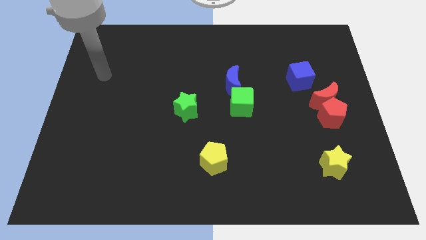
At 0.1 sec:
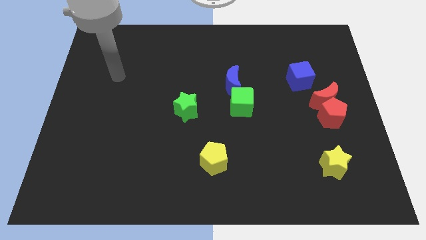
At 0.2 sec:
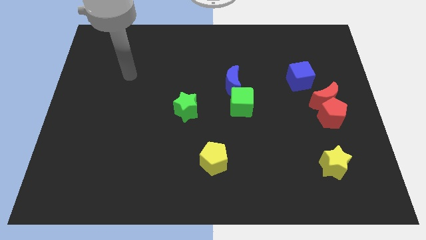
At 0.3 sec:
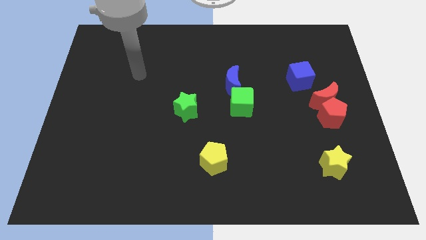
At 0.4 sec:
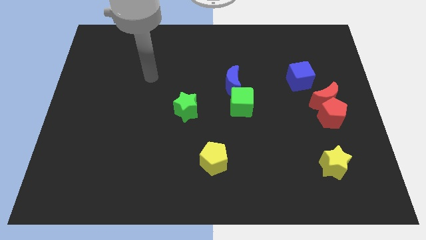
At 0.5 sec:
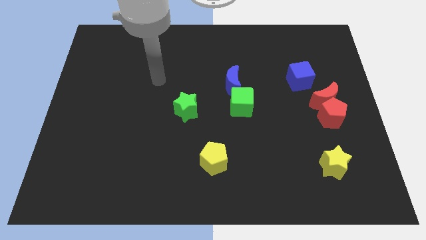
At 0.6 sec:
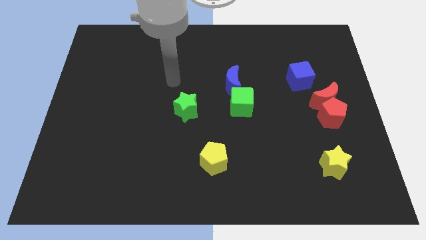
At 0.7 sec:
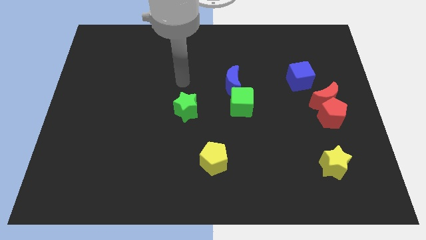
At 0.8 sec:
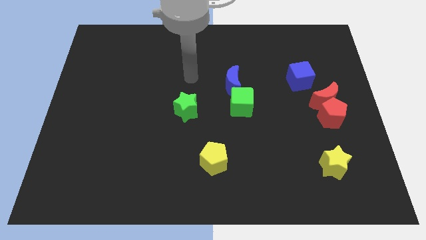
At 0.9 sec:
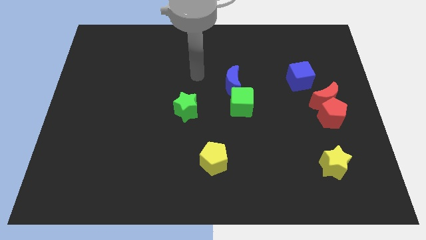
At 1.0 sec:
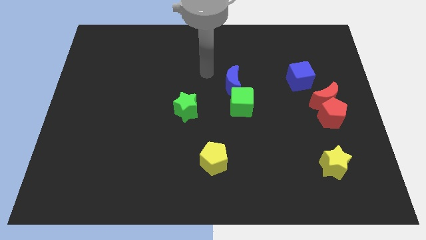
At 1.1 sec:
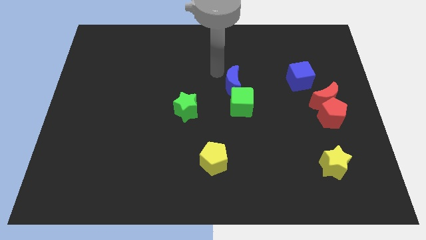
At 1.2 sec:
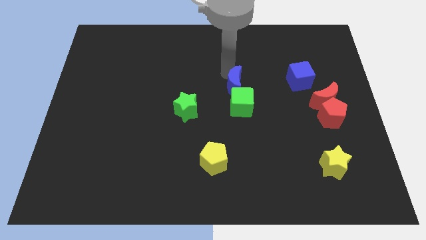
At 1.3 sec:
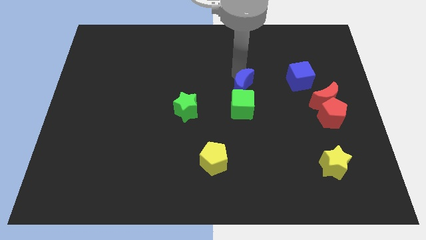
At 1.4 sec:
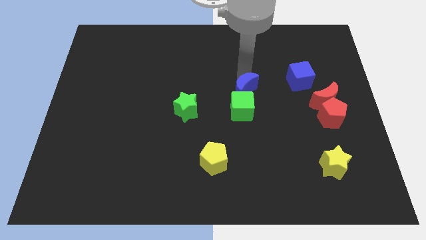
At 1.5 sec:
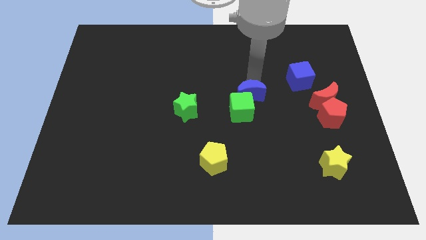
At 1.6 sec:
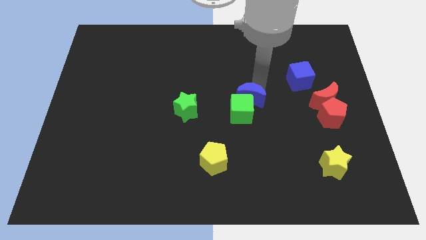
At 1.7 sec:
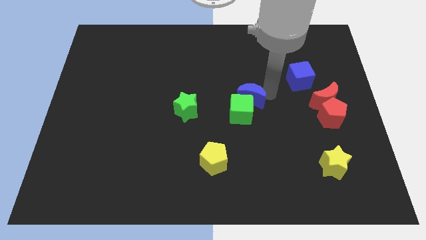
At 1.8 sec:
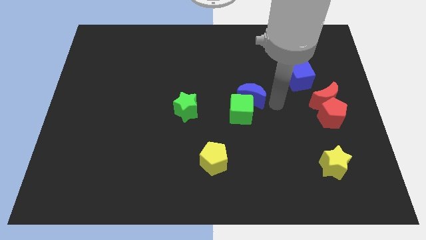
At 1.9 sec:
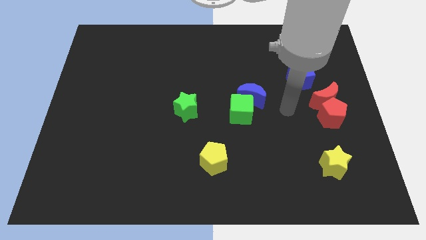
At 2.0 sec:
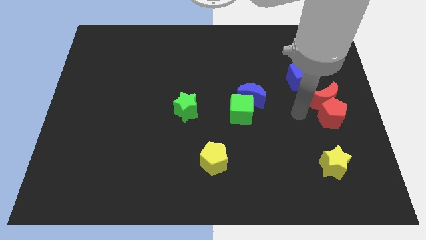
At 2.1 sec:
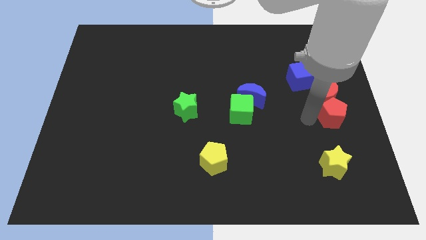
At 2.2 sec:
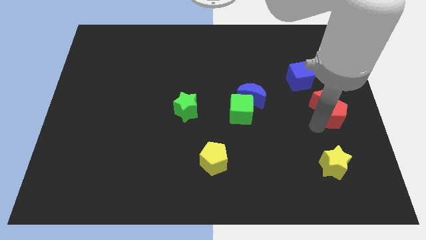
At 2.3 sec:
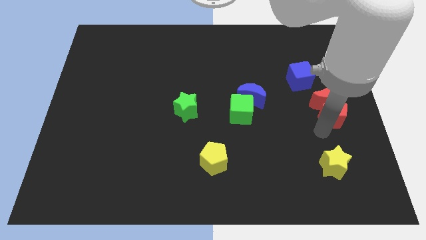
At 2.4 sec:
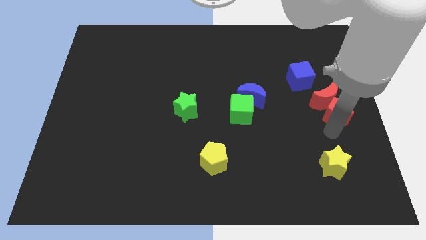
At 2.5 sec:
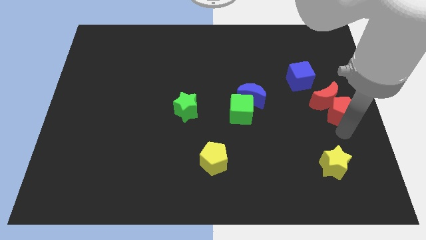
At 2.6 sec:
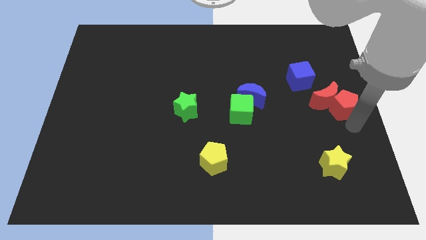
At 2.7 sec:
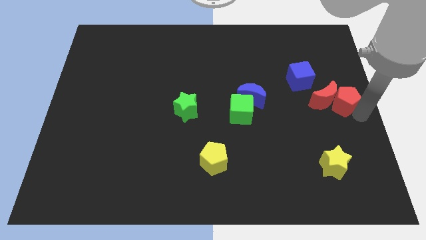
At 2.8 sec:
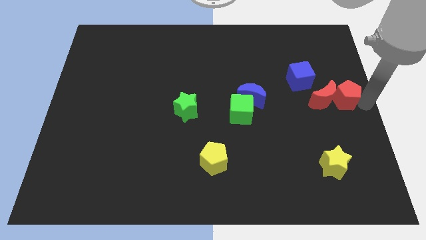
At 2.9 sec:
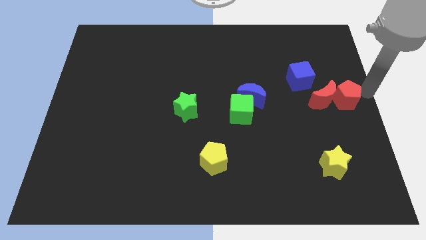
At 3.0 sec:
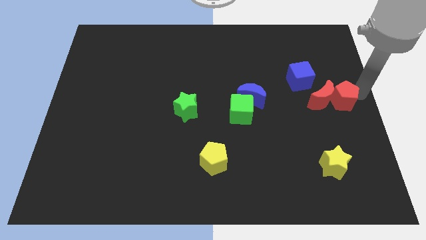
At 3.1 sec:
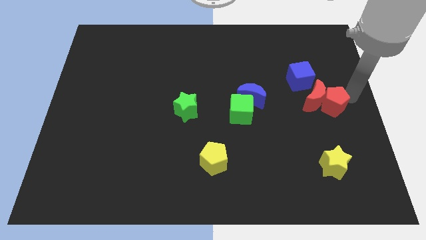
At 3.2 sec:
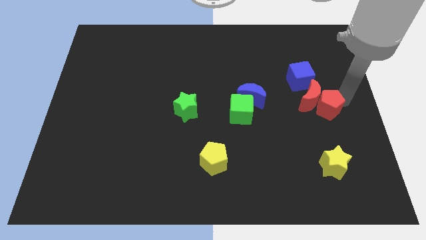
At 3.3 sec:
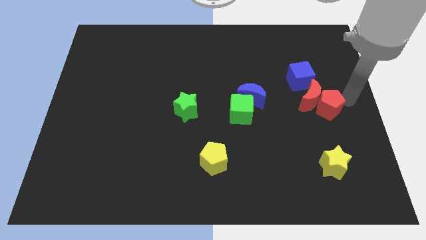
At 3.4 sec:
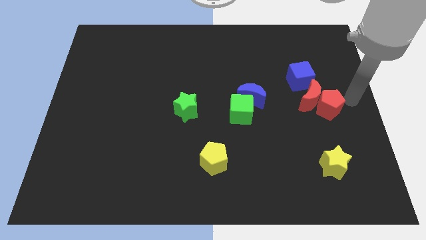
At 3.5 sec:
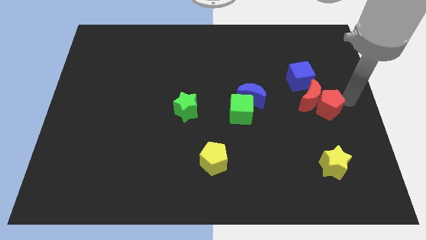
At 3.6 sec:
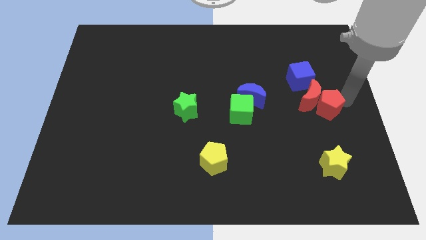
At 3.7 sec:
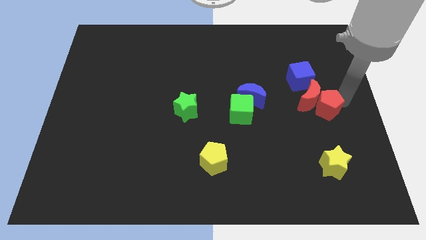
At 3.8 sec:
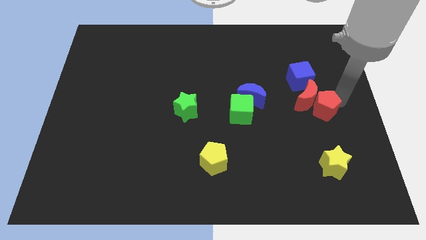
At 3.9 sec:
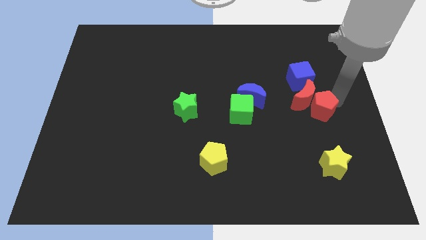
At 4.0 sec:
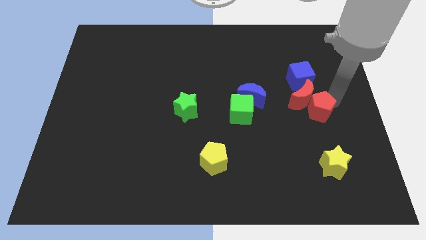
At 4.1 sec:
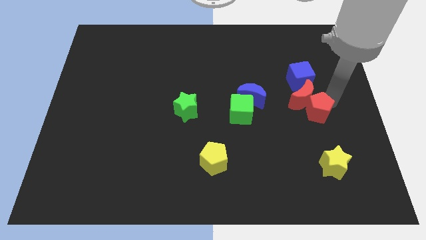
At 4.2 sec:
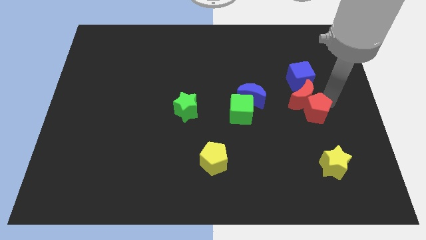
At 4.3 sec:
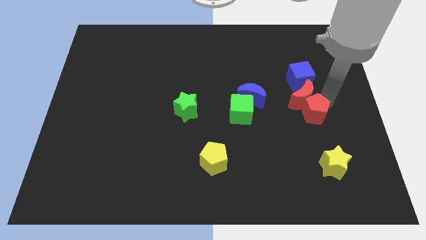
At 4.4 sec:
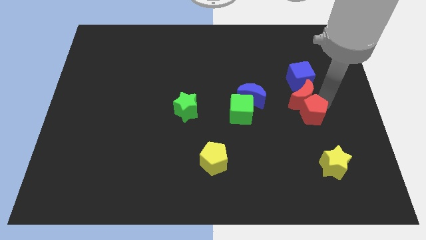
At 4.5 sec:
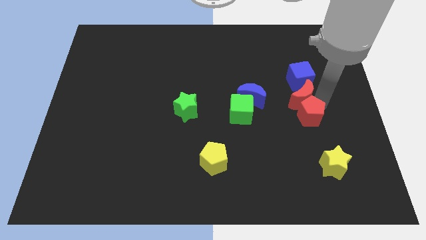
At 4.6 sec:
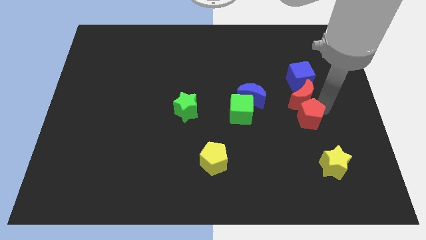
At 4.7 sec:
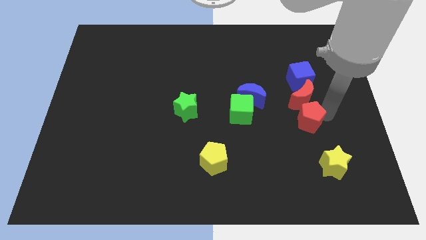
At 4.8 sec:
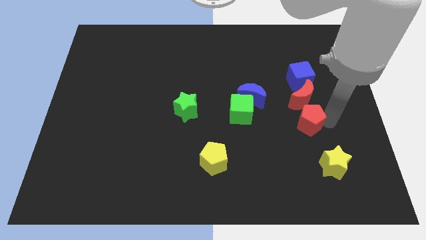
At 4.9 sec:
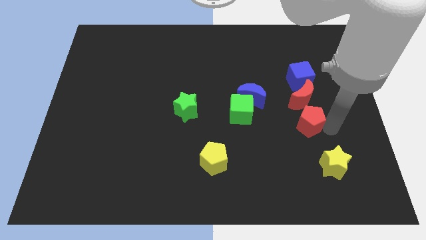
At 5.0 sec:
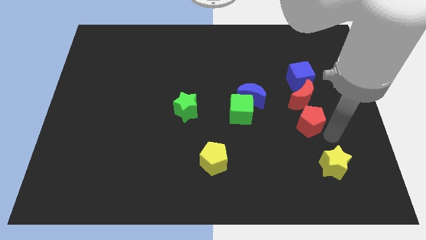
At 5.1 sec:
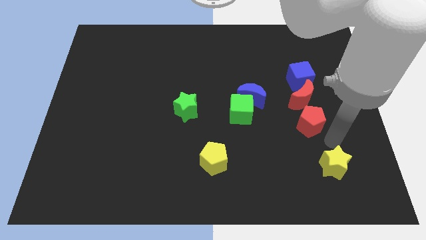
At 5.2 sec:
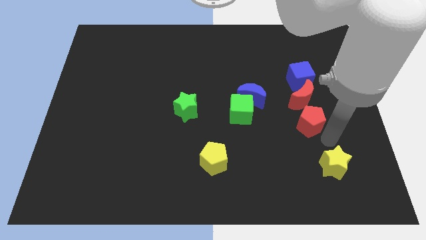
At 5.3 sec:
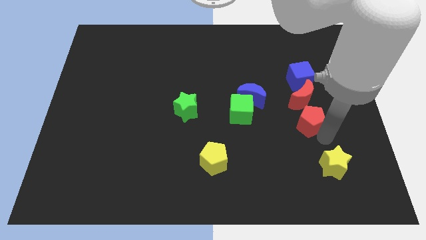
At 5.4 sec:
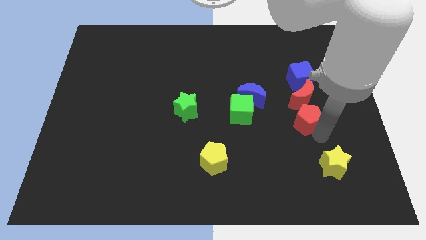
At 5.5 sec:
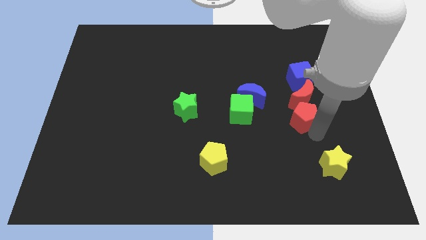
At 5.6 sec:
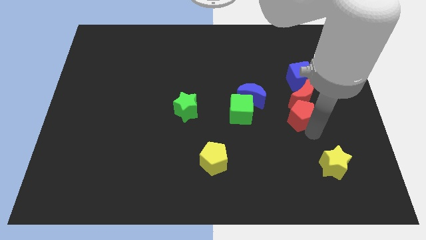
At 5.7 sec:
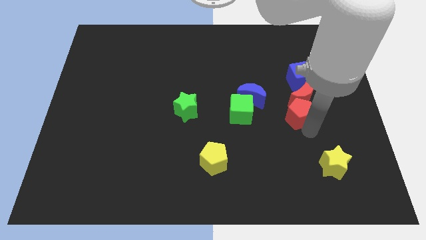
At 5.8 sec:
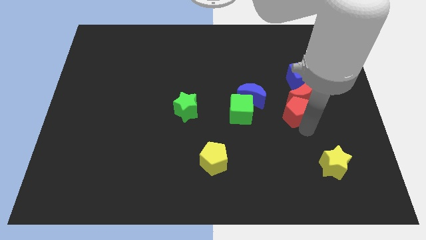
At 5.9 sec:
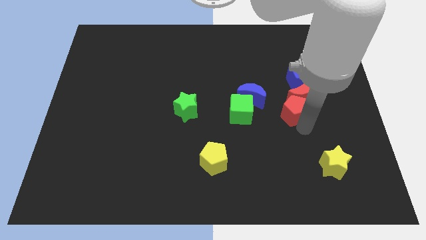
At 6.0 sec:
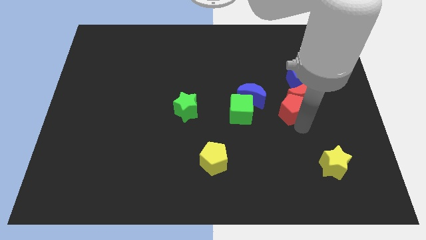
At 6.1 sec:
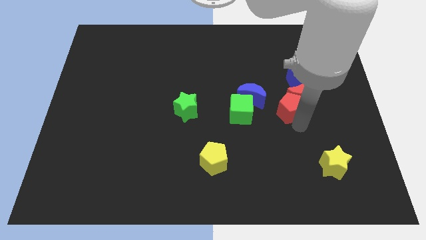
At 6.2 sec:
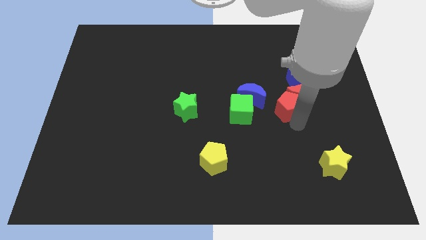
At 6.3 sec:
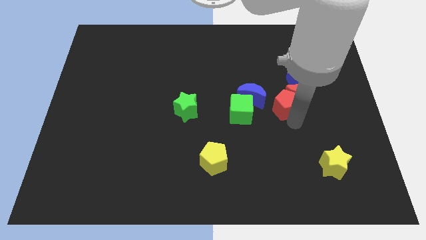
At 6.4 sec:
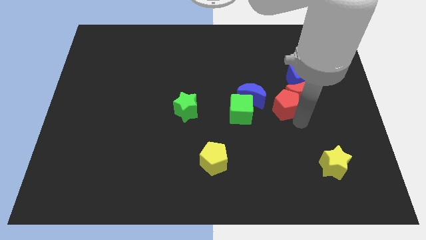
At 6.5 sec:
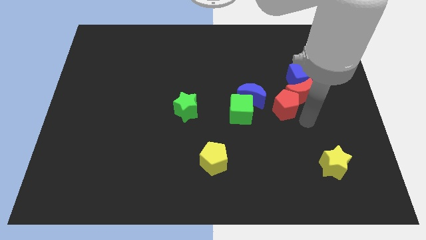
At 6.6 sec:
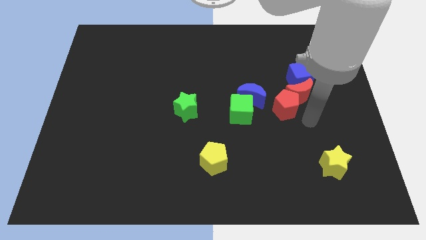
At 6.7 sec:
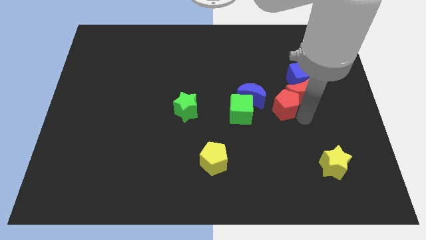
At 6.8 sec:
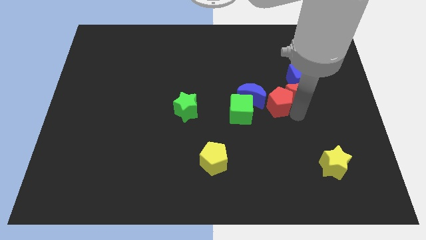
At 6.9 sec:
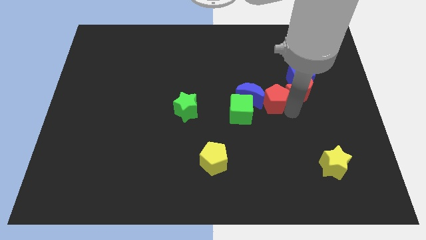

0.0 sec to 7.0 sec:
move the red pentagon towards the blue moon

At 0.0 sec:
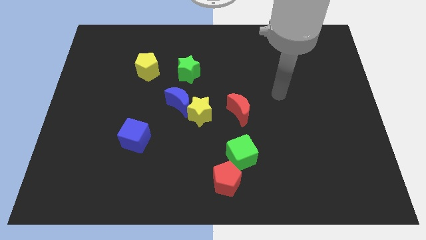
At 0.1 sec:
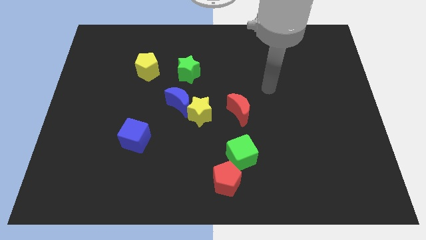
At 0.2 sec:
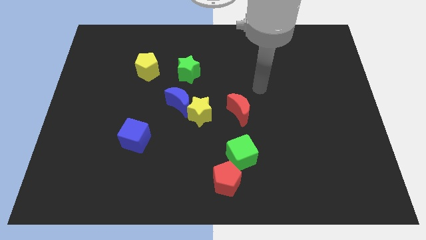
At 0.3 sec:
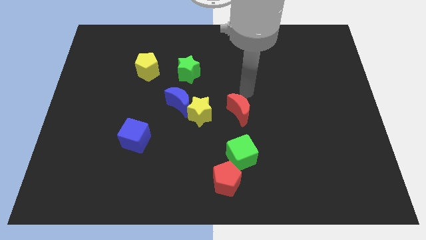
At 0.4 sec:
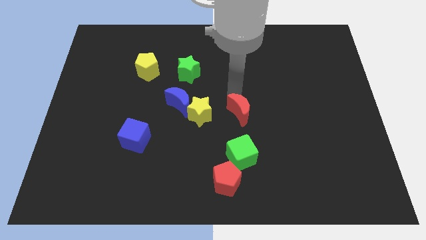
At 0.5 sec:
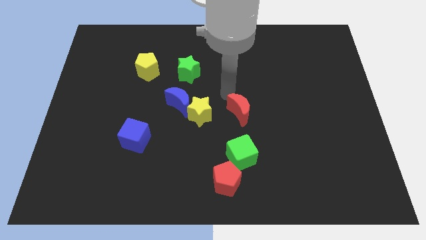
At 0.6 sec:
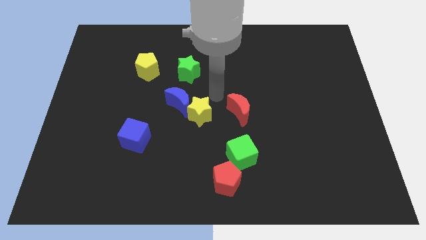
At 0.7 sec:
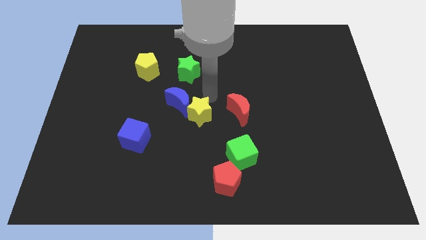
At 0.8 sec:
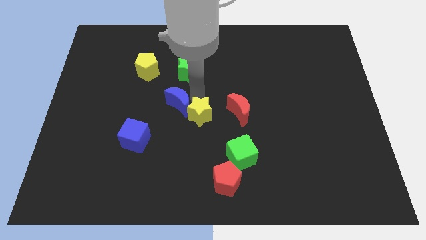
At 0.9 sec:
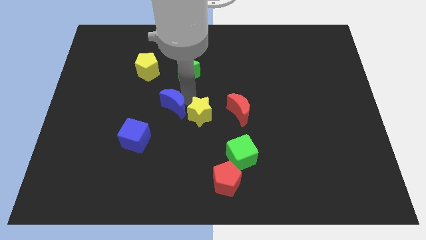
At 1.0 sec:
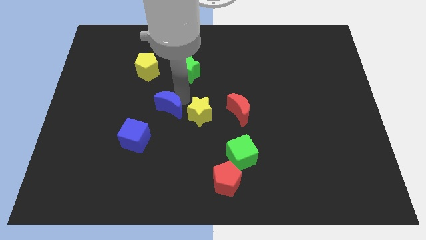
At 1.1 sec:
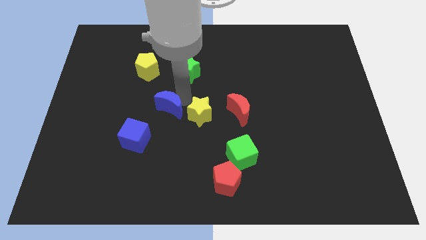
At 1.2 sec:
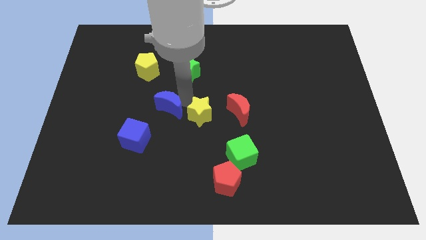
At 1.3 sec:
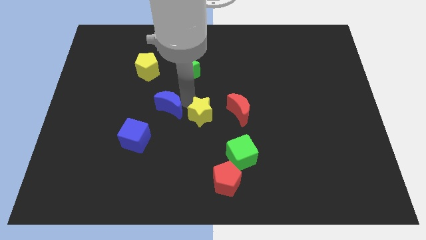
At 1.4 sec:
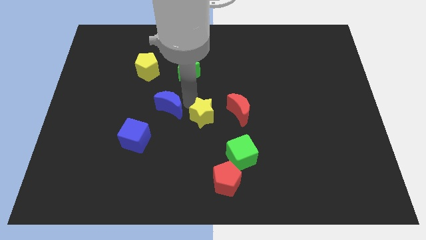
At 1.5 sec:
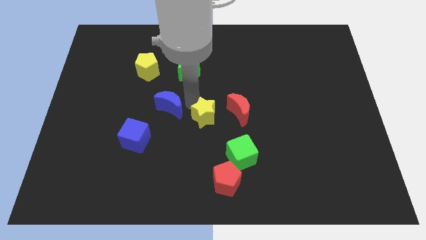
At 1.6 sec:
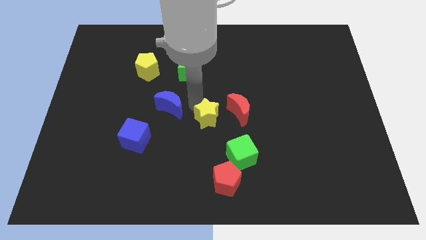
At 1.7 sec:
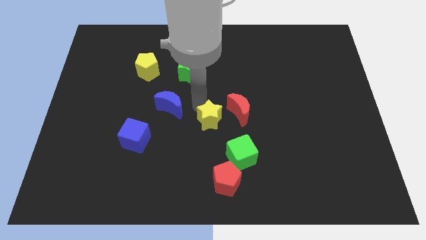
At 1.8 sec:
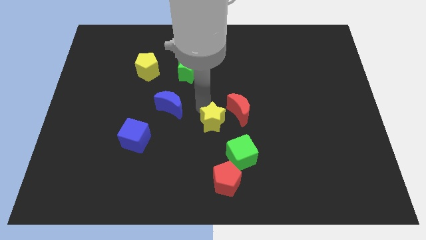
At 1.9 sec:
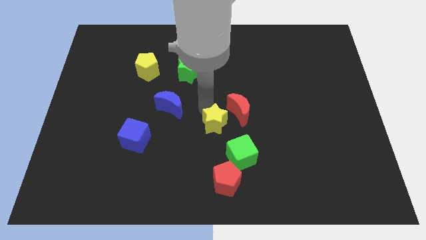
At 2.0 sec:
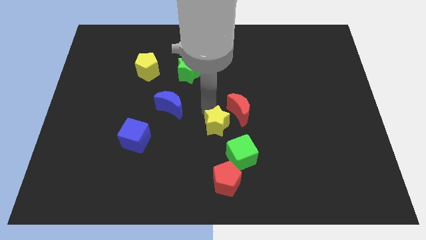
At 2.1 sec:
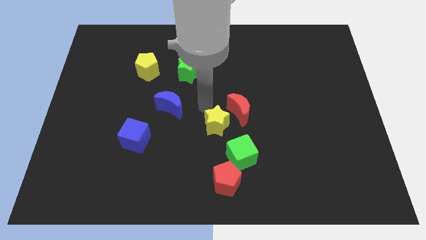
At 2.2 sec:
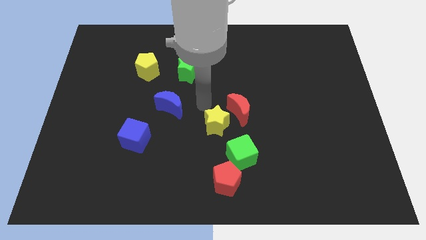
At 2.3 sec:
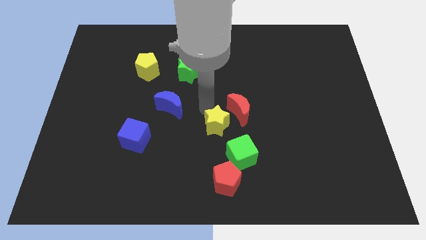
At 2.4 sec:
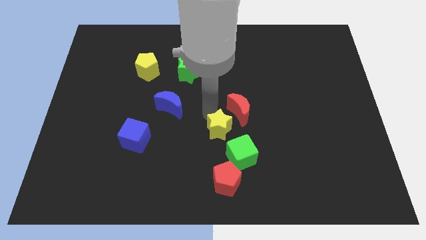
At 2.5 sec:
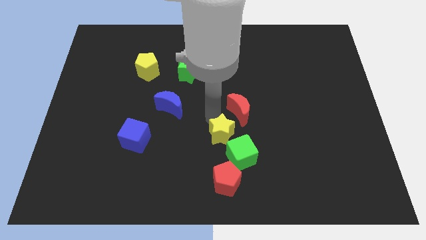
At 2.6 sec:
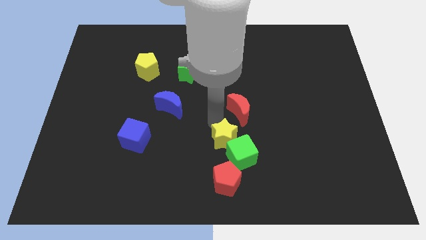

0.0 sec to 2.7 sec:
slide the yellow star to the green cube
